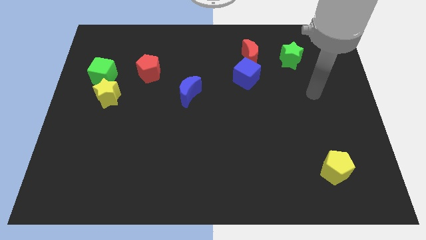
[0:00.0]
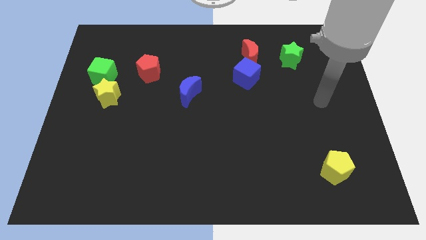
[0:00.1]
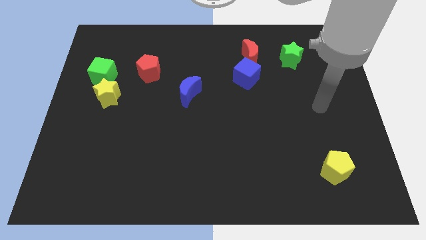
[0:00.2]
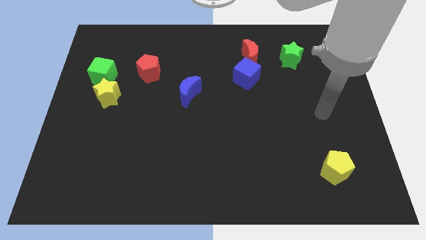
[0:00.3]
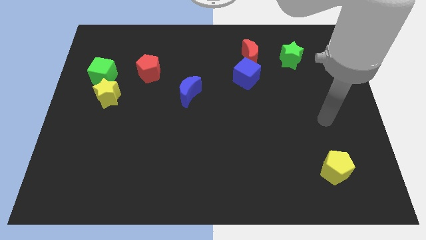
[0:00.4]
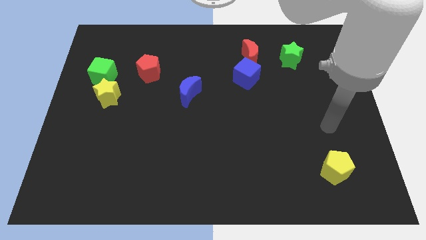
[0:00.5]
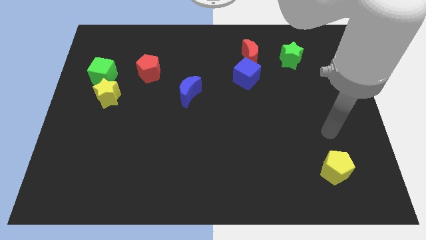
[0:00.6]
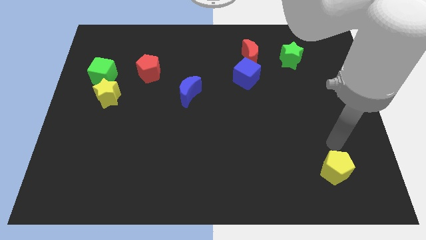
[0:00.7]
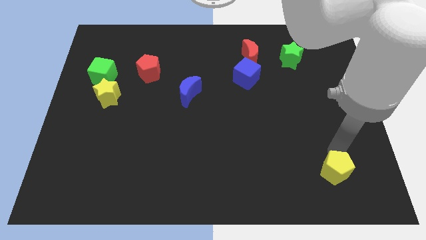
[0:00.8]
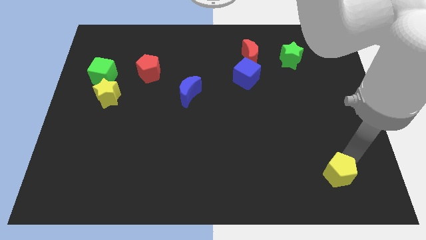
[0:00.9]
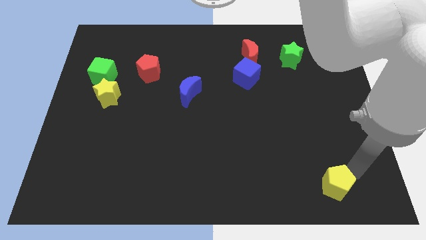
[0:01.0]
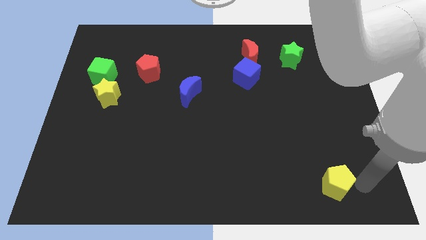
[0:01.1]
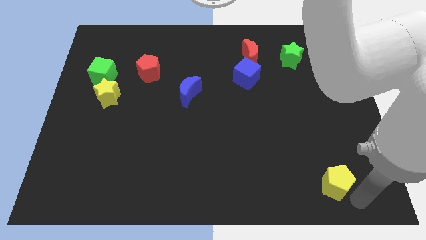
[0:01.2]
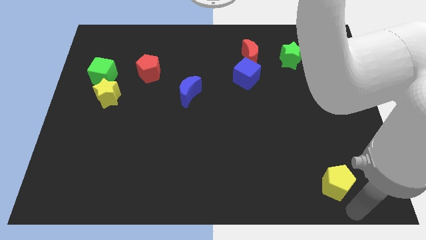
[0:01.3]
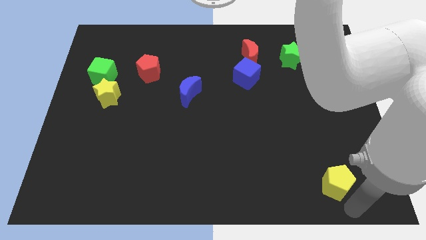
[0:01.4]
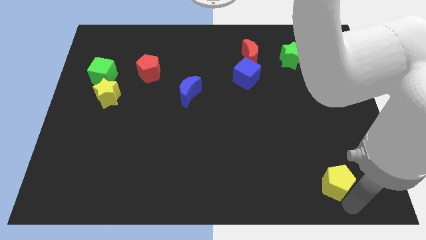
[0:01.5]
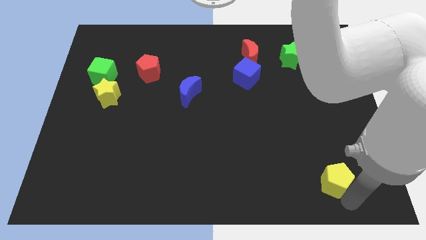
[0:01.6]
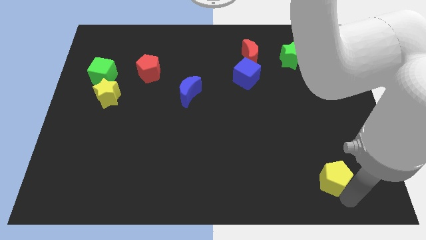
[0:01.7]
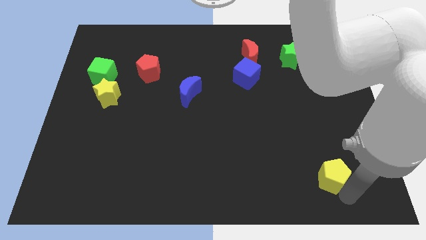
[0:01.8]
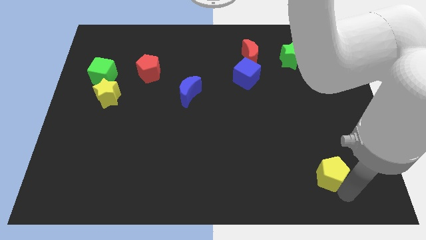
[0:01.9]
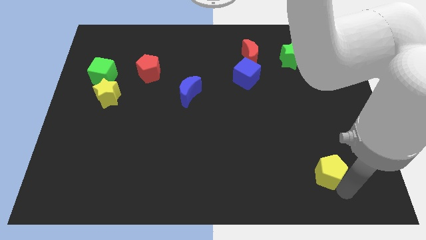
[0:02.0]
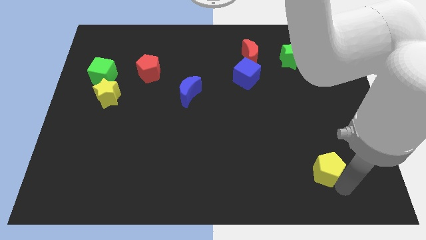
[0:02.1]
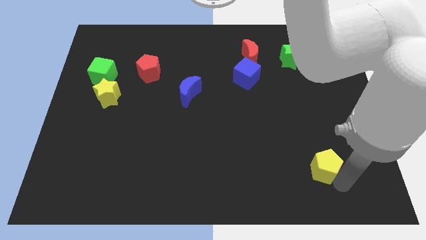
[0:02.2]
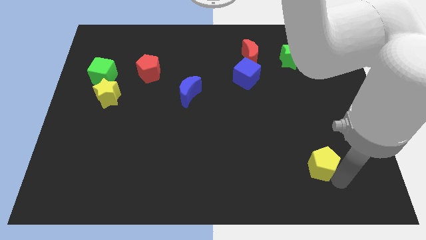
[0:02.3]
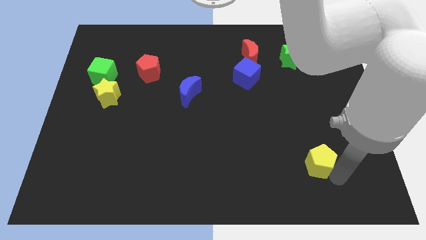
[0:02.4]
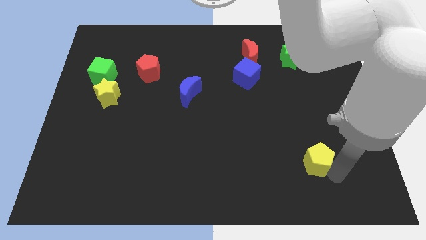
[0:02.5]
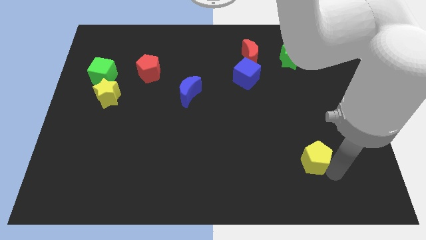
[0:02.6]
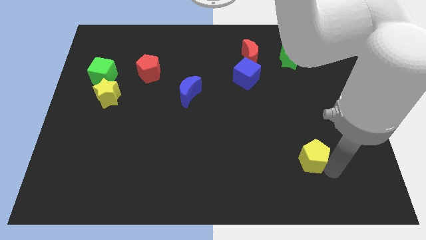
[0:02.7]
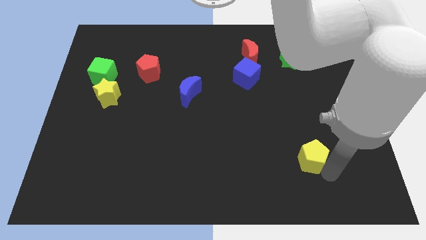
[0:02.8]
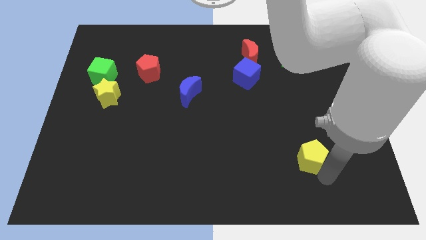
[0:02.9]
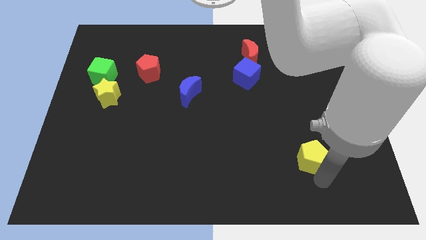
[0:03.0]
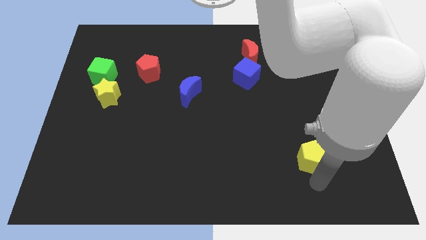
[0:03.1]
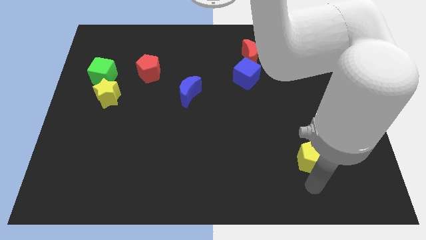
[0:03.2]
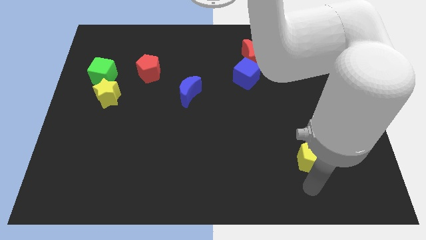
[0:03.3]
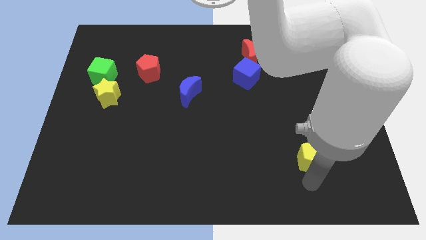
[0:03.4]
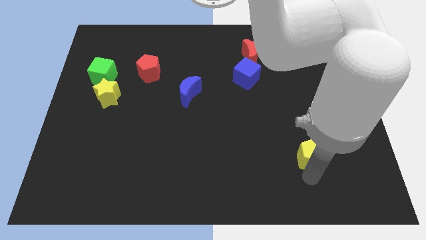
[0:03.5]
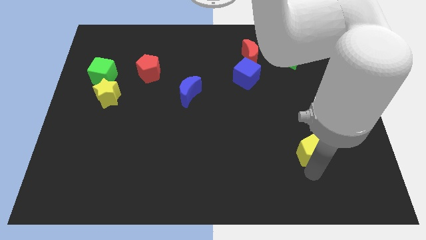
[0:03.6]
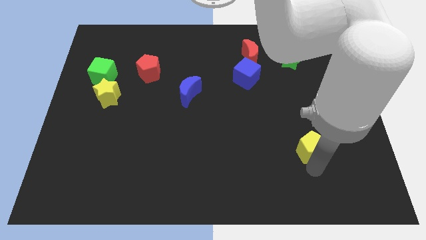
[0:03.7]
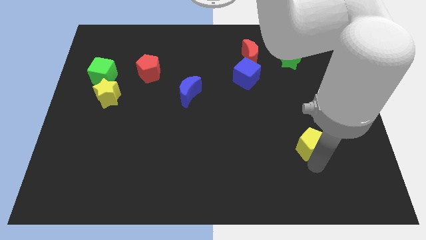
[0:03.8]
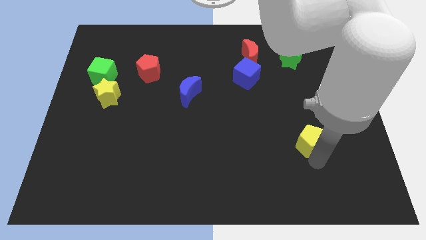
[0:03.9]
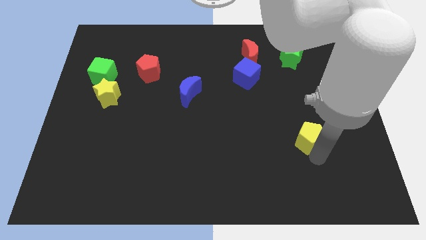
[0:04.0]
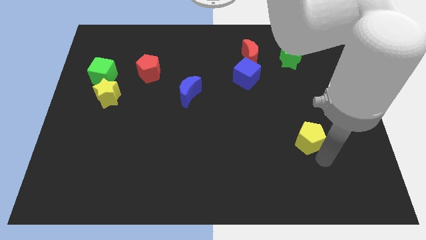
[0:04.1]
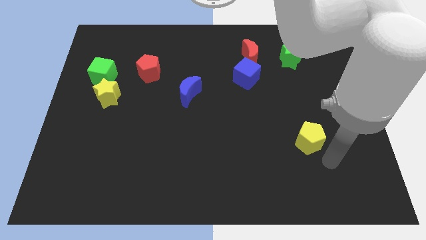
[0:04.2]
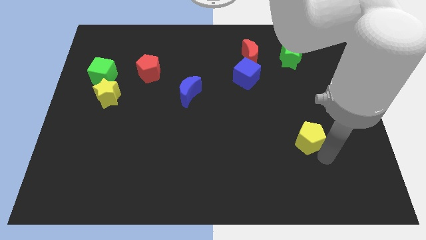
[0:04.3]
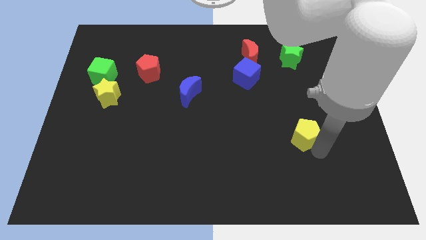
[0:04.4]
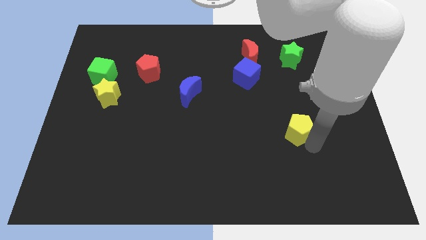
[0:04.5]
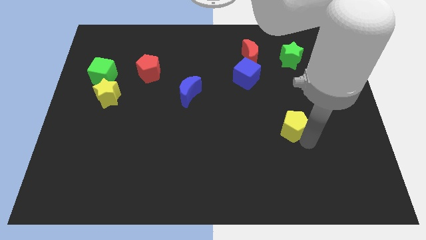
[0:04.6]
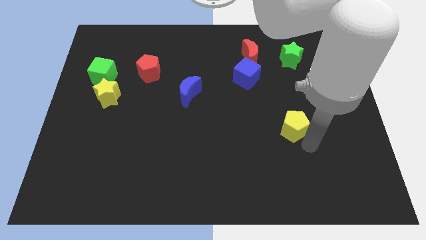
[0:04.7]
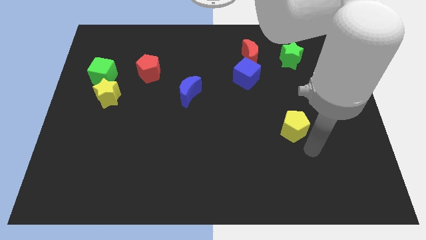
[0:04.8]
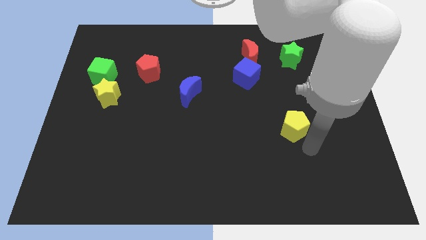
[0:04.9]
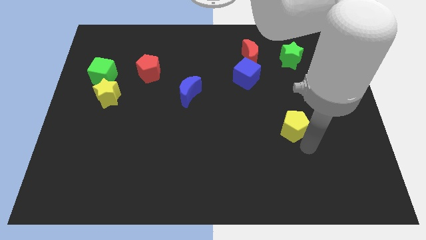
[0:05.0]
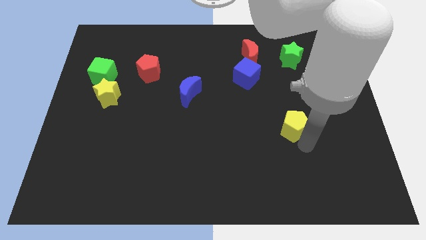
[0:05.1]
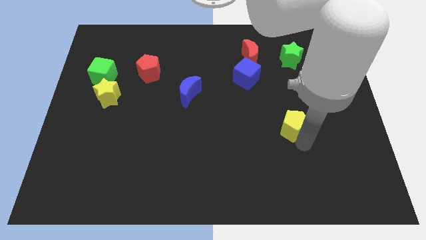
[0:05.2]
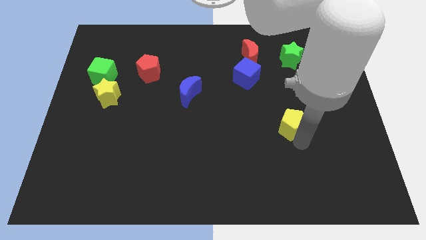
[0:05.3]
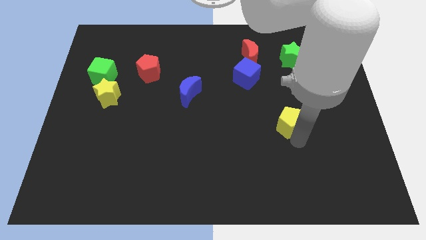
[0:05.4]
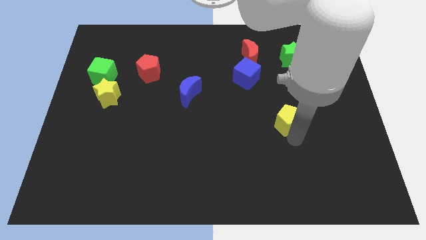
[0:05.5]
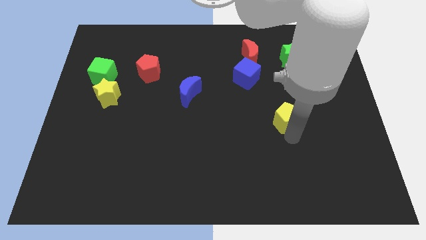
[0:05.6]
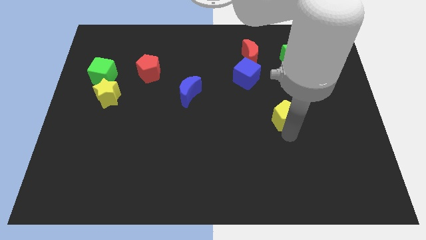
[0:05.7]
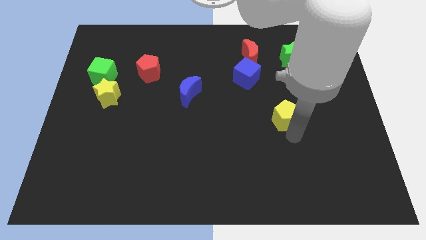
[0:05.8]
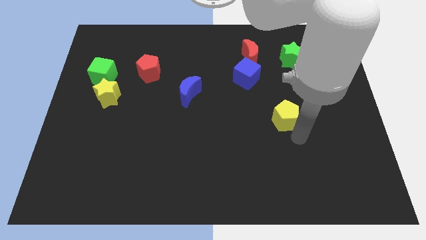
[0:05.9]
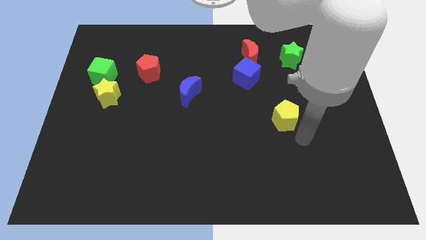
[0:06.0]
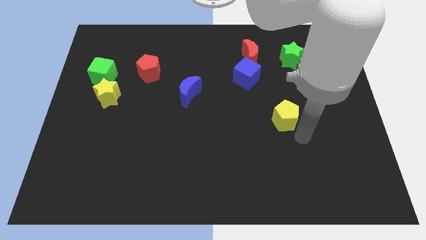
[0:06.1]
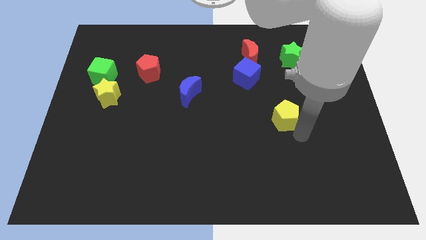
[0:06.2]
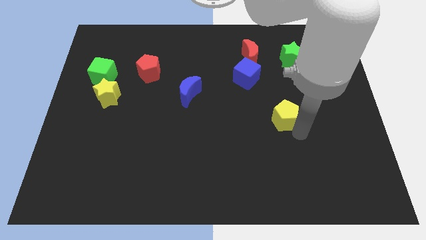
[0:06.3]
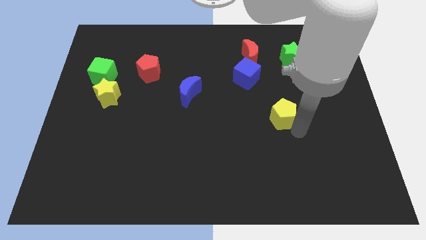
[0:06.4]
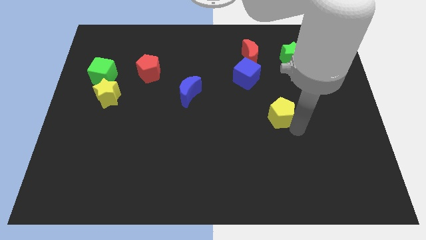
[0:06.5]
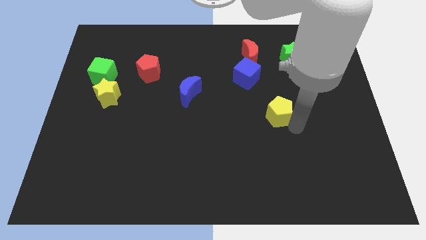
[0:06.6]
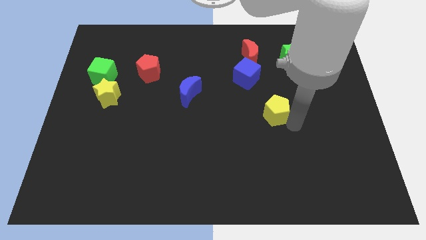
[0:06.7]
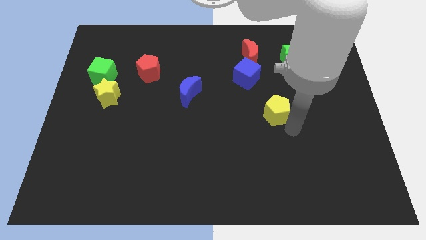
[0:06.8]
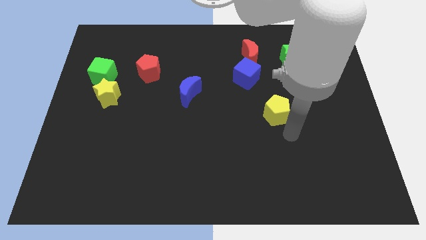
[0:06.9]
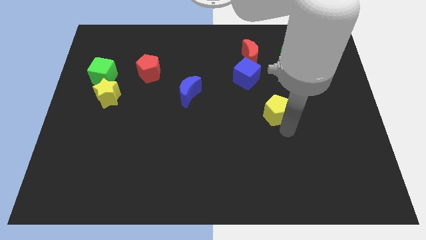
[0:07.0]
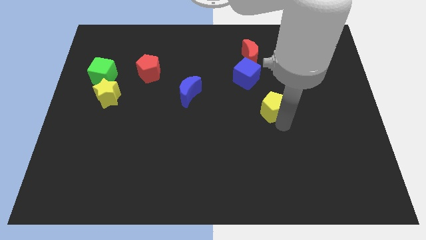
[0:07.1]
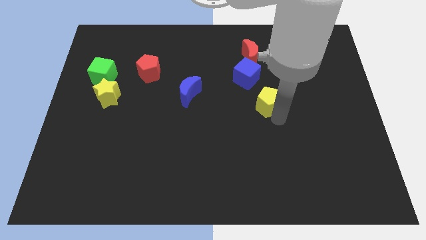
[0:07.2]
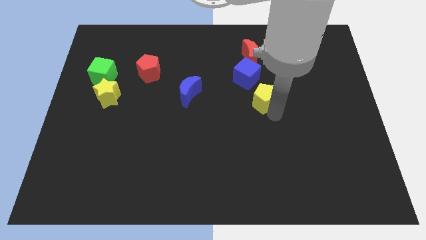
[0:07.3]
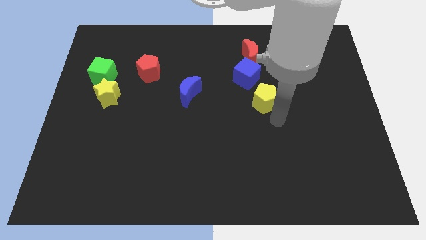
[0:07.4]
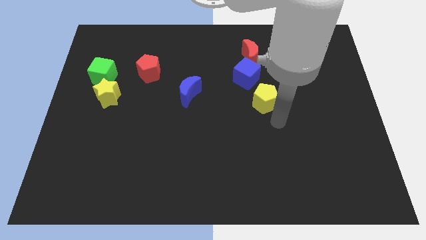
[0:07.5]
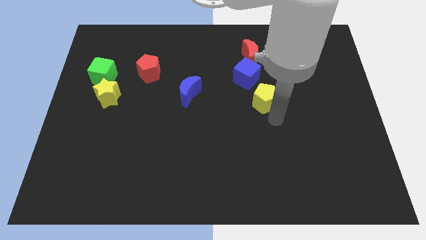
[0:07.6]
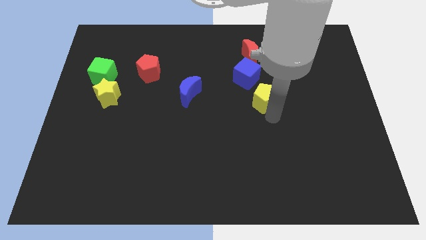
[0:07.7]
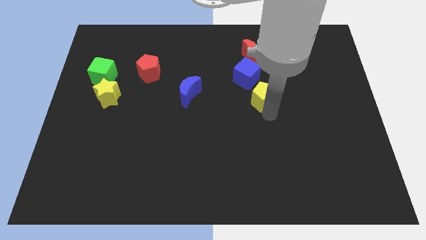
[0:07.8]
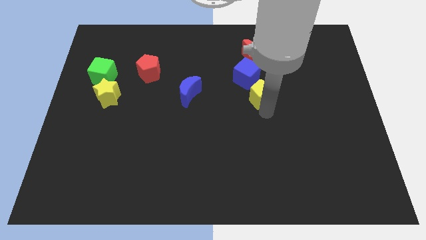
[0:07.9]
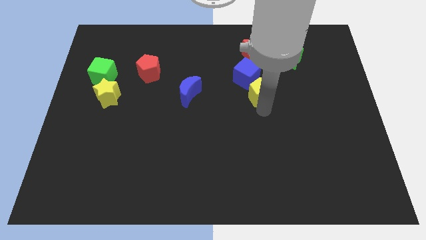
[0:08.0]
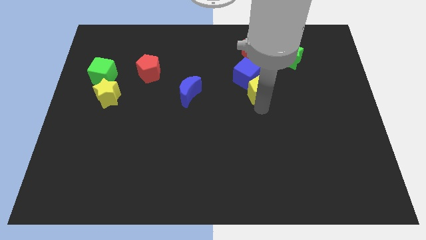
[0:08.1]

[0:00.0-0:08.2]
push the yellow pentagon towards the blue cube
